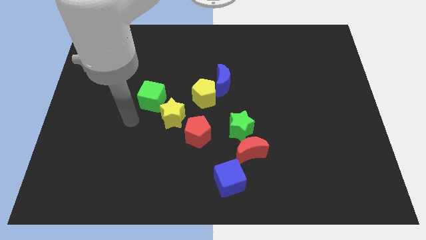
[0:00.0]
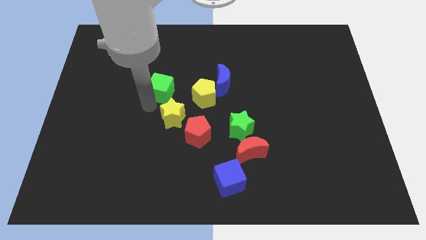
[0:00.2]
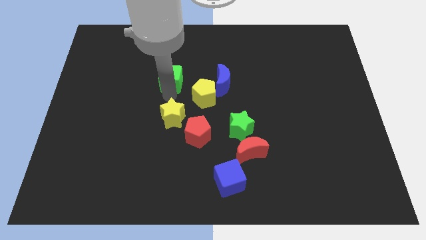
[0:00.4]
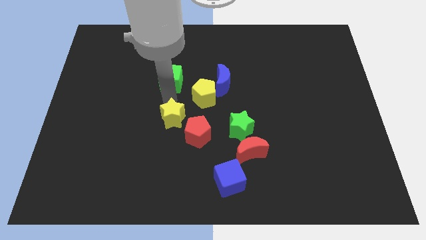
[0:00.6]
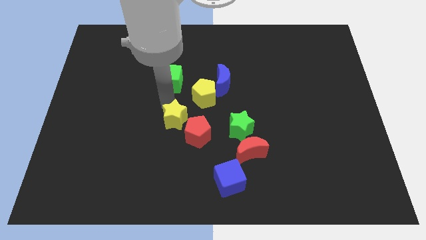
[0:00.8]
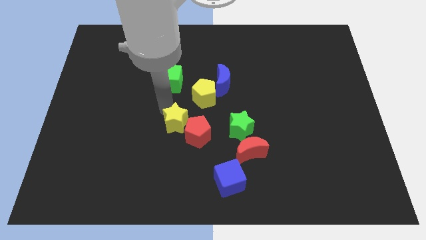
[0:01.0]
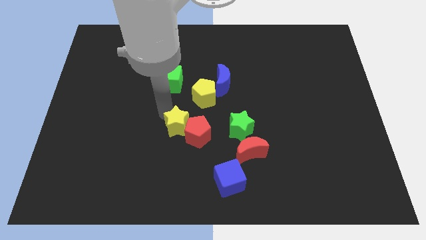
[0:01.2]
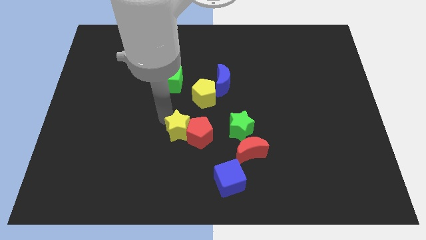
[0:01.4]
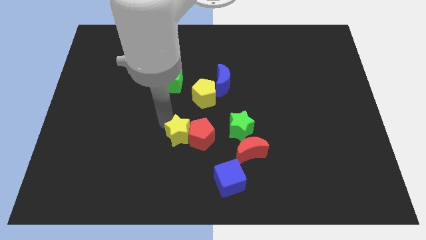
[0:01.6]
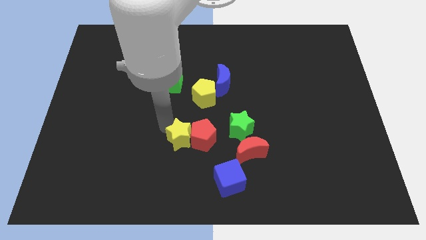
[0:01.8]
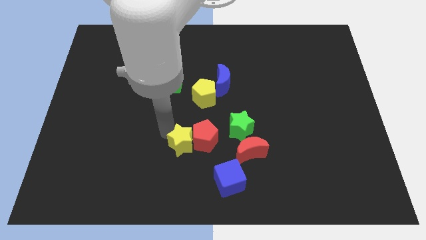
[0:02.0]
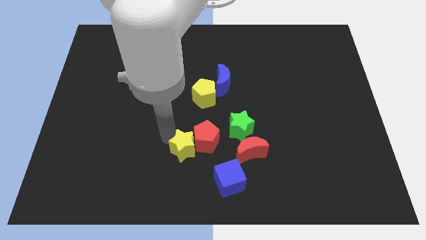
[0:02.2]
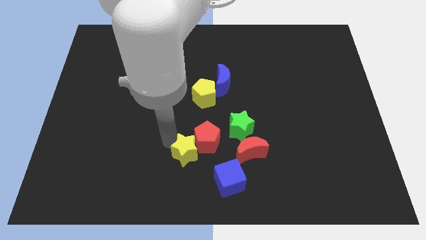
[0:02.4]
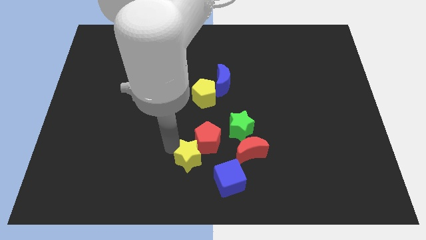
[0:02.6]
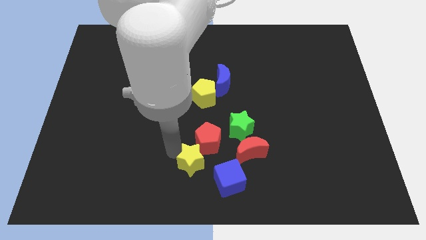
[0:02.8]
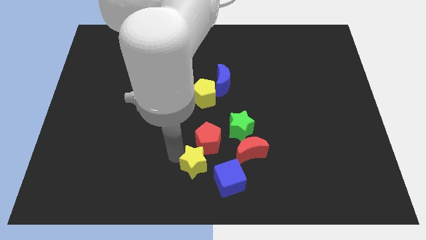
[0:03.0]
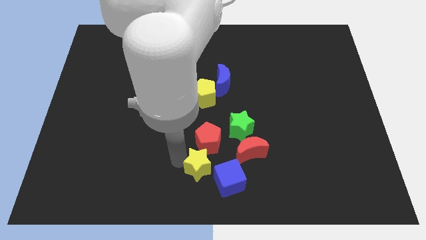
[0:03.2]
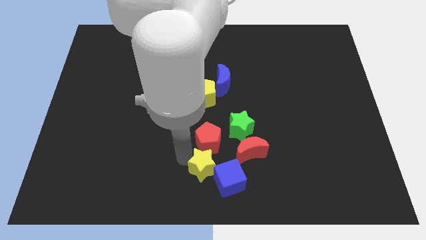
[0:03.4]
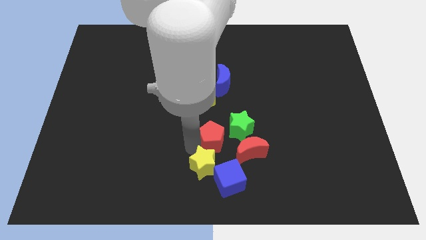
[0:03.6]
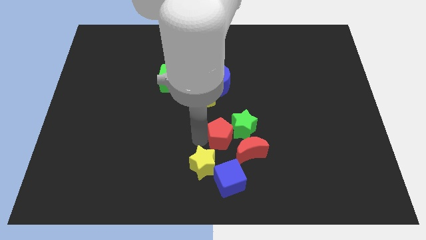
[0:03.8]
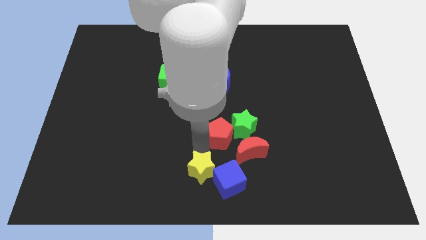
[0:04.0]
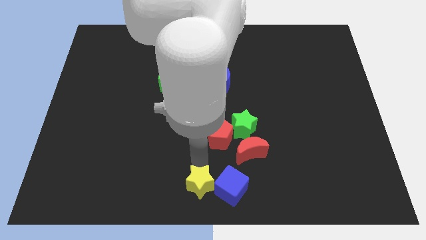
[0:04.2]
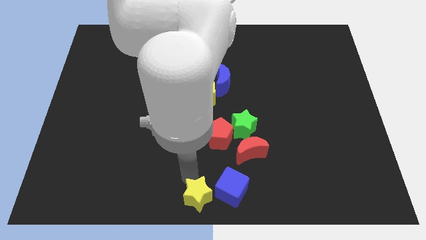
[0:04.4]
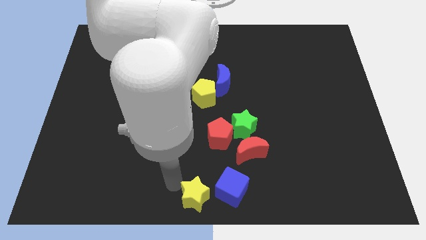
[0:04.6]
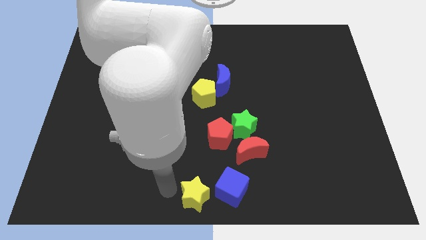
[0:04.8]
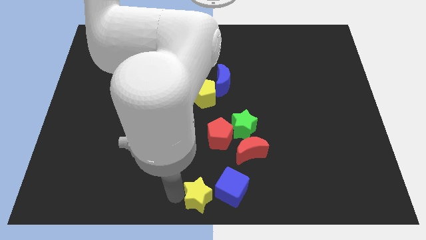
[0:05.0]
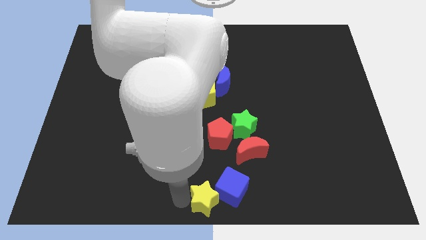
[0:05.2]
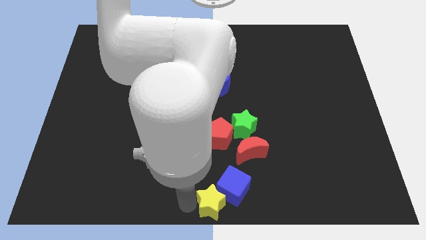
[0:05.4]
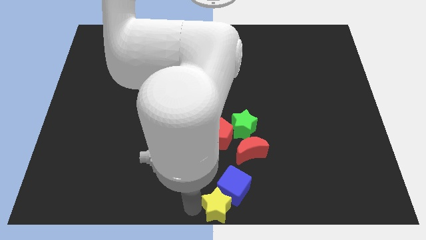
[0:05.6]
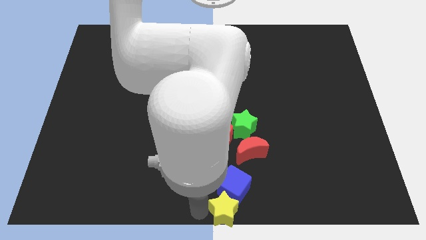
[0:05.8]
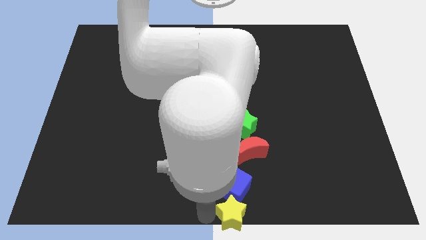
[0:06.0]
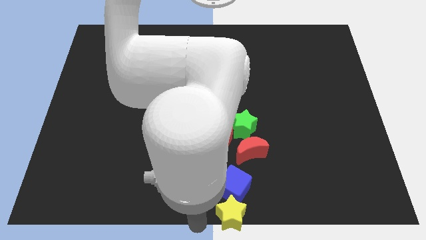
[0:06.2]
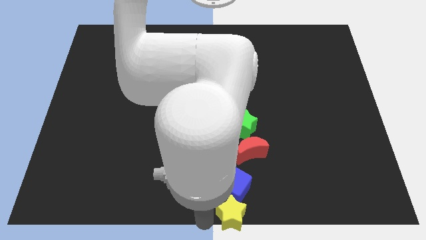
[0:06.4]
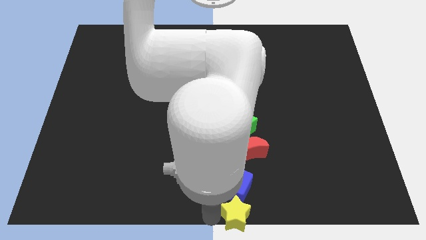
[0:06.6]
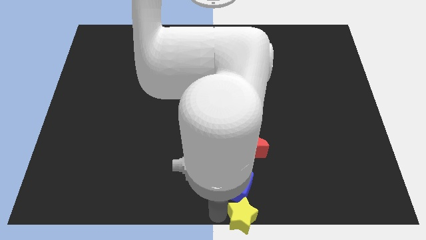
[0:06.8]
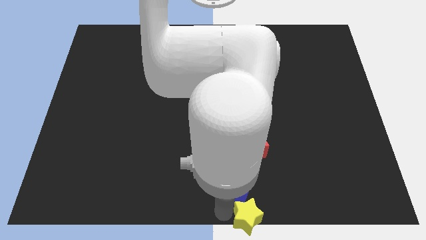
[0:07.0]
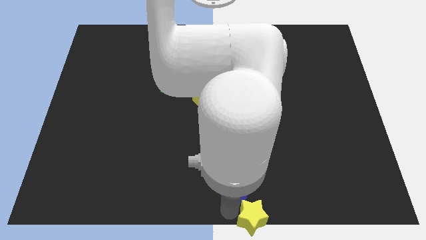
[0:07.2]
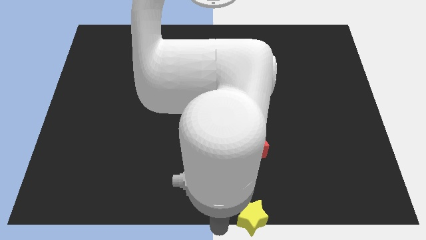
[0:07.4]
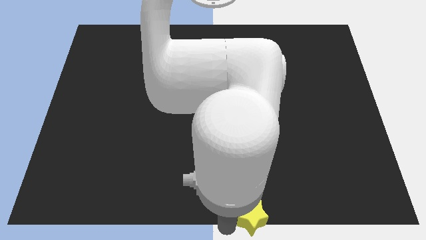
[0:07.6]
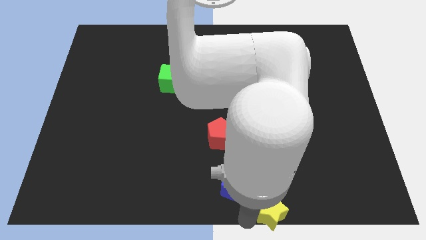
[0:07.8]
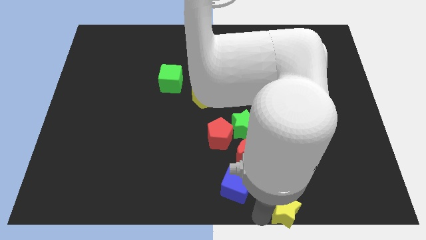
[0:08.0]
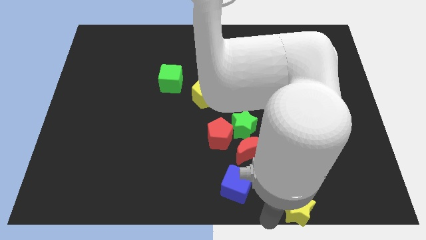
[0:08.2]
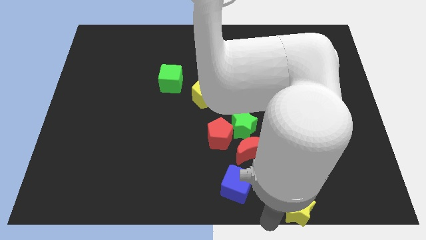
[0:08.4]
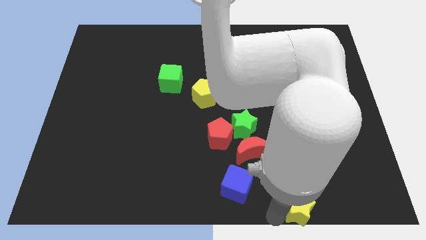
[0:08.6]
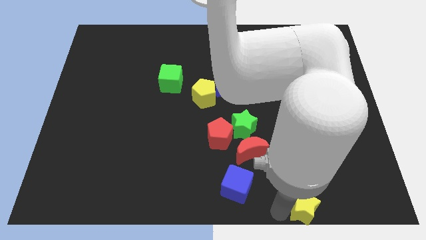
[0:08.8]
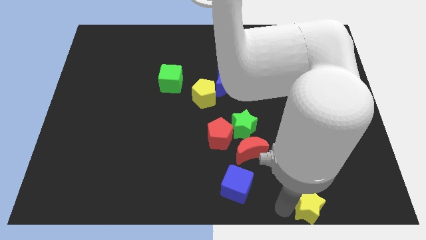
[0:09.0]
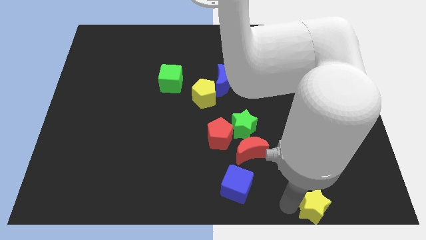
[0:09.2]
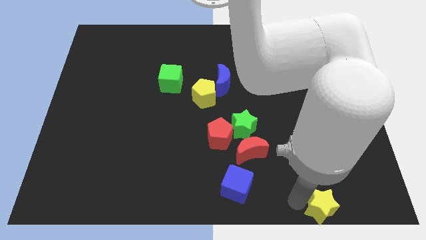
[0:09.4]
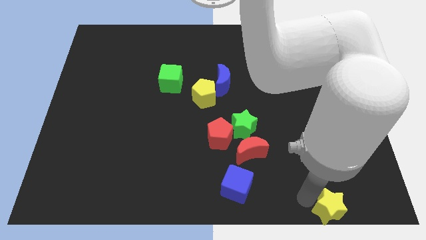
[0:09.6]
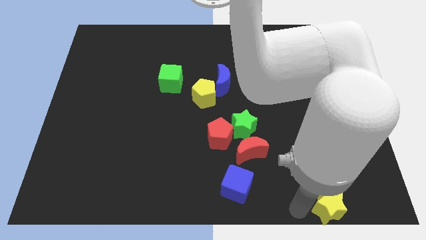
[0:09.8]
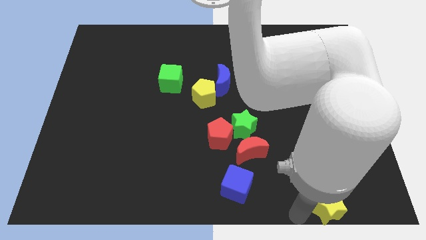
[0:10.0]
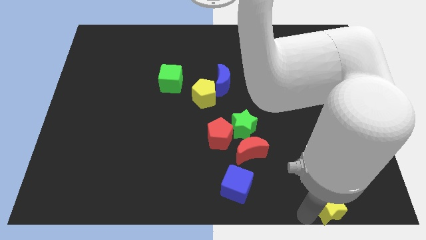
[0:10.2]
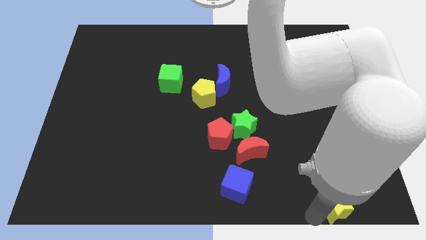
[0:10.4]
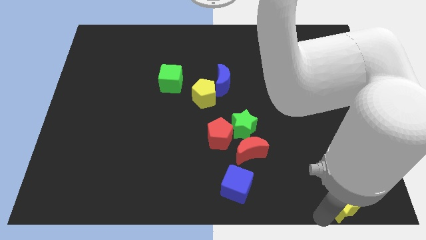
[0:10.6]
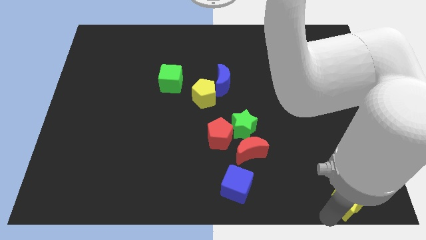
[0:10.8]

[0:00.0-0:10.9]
move the yellow star to the bottom right corner
